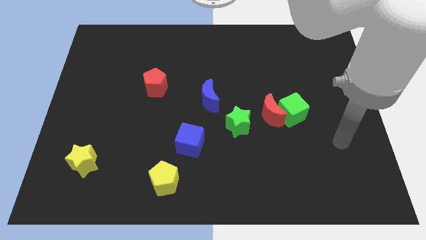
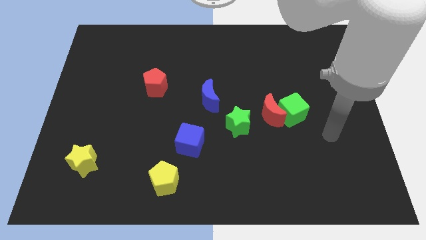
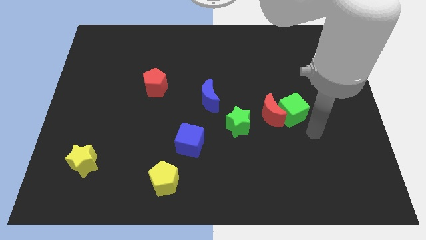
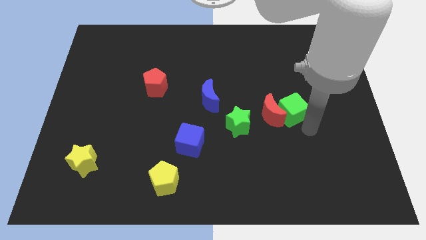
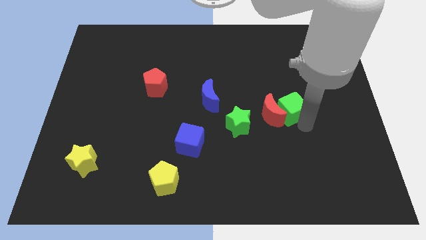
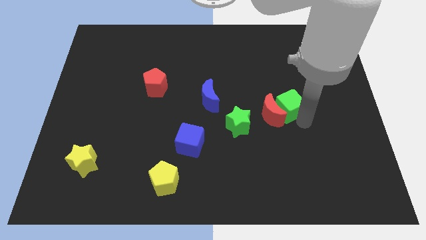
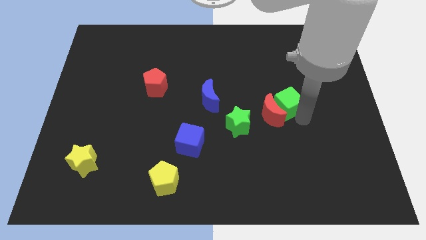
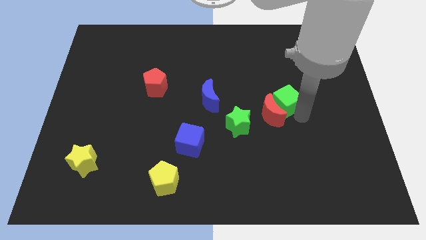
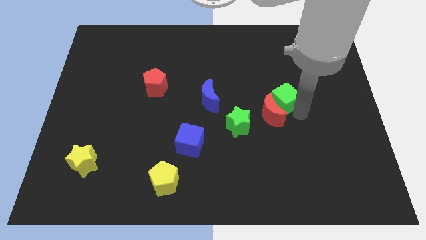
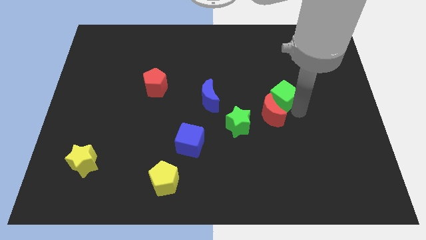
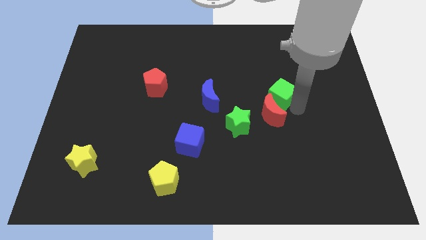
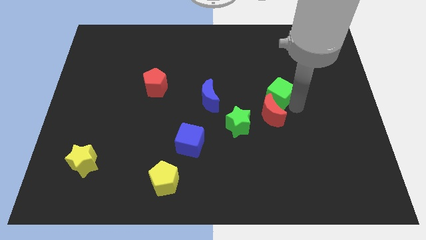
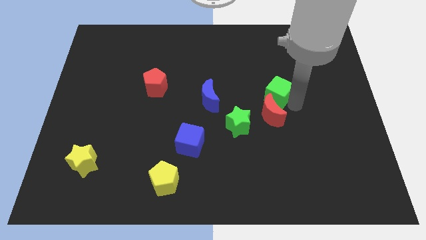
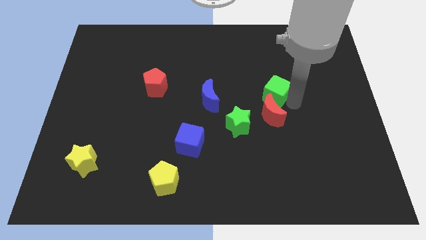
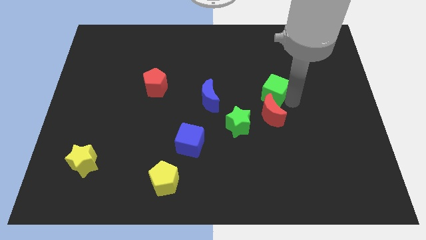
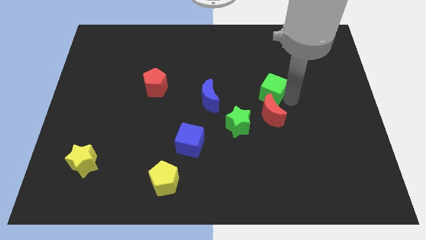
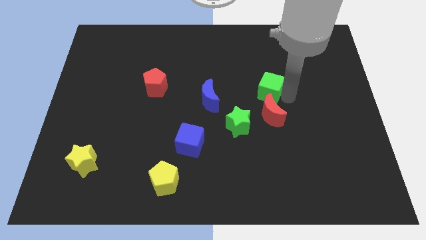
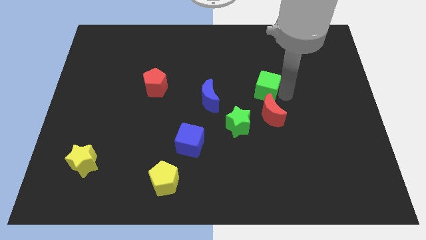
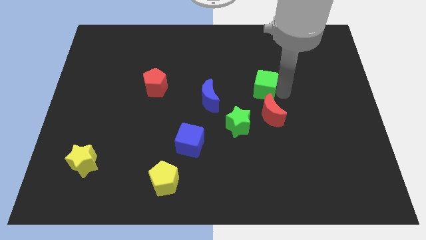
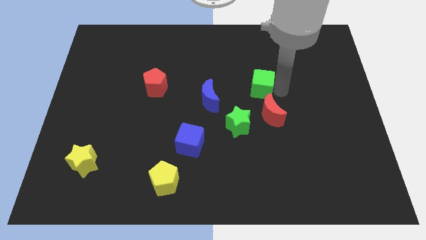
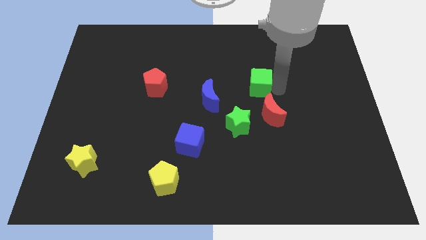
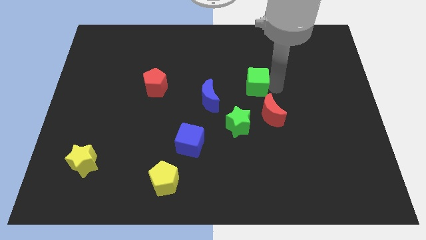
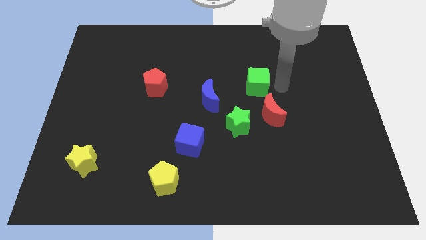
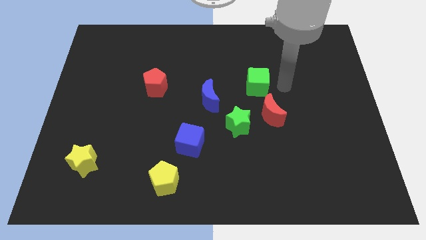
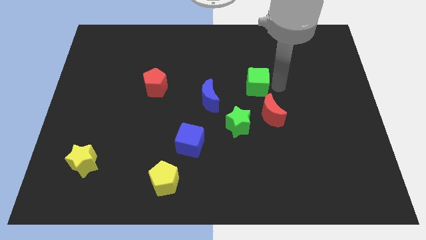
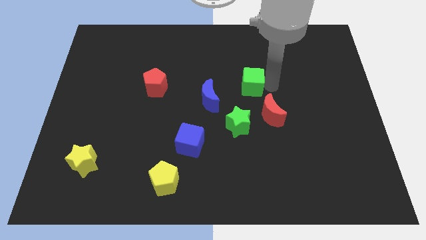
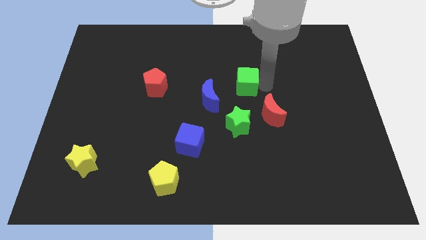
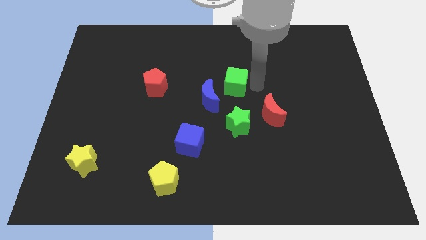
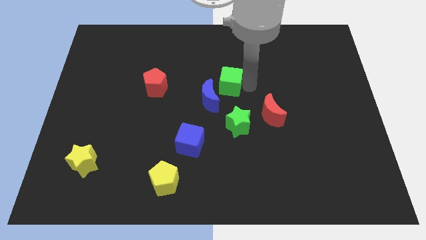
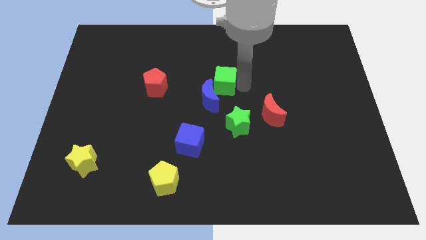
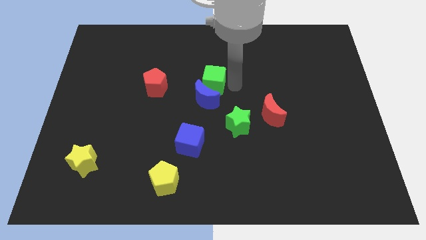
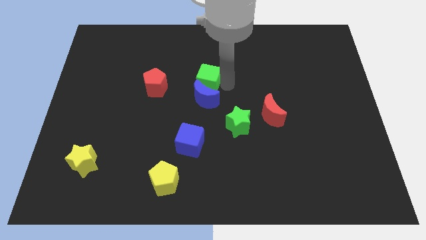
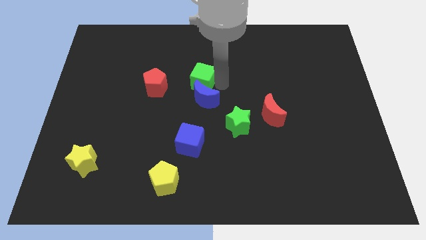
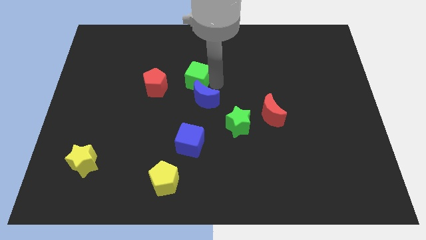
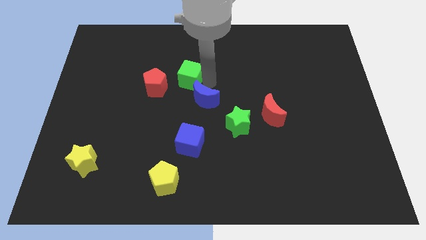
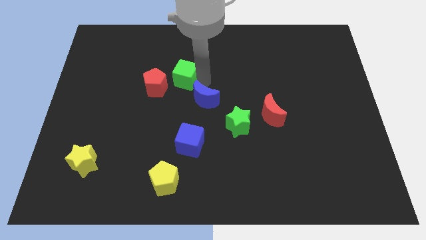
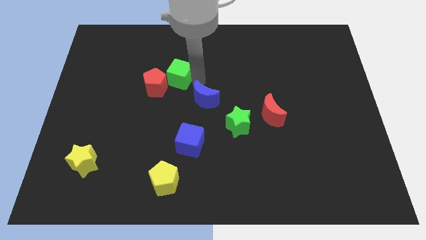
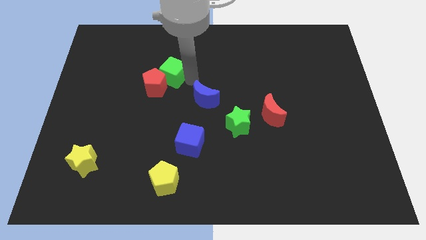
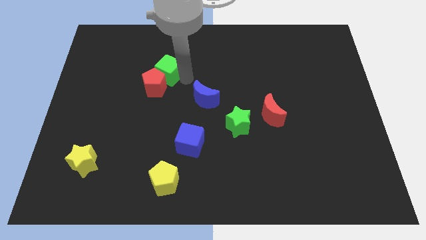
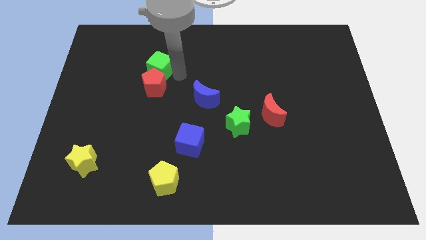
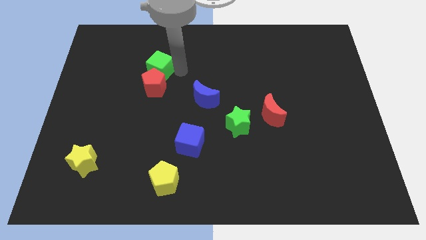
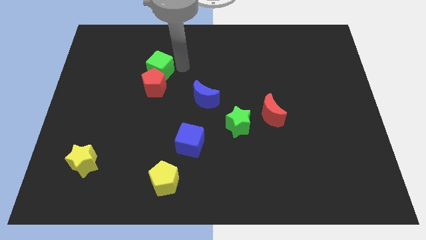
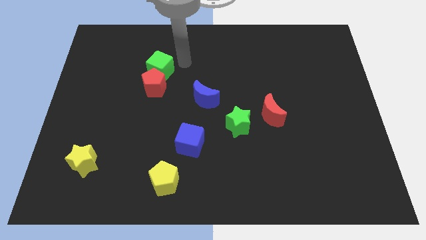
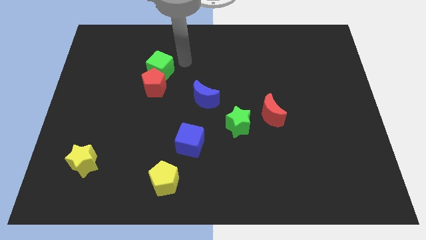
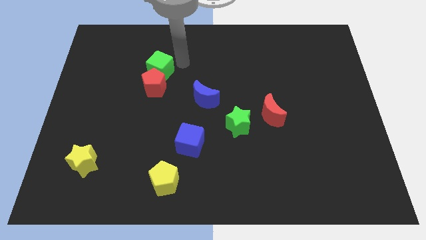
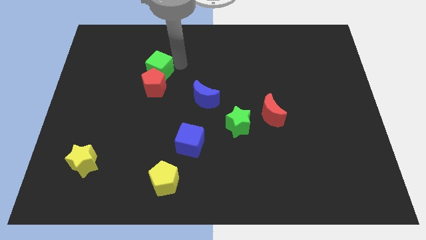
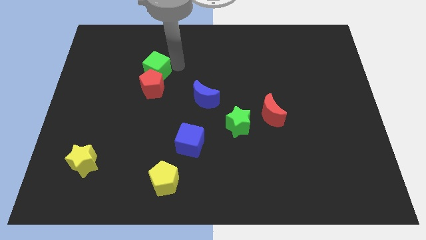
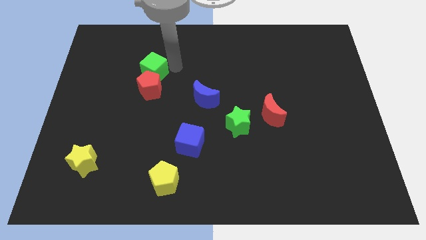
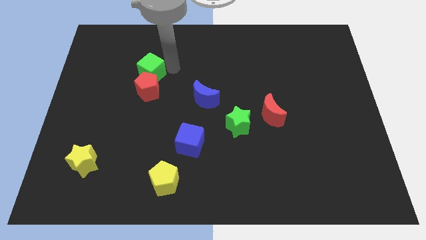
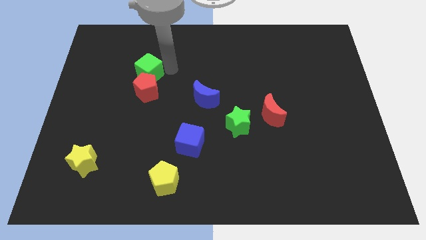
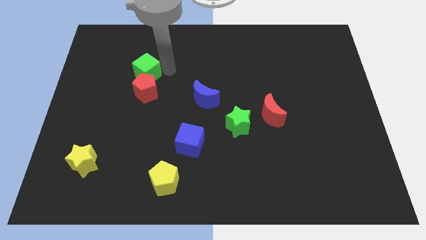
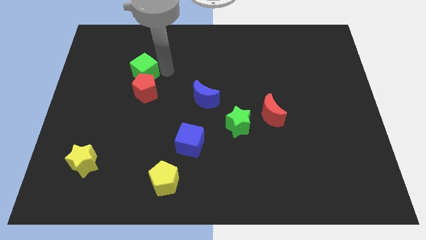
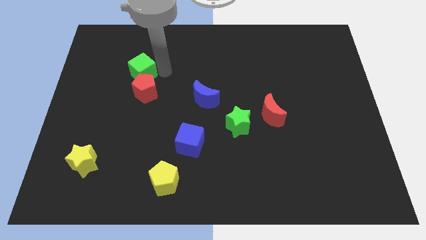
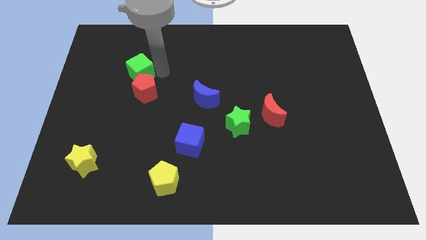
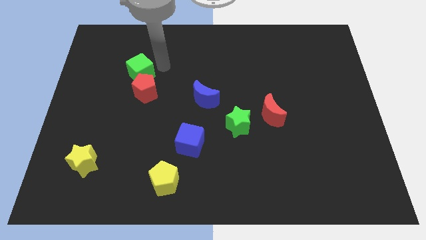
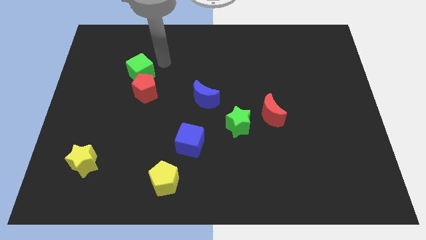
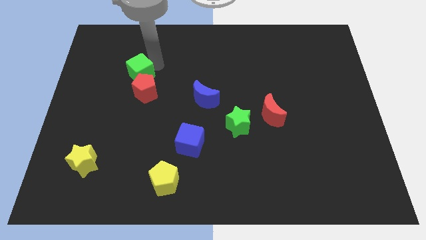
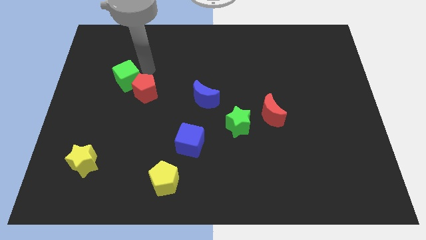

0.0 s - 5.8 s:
move the green cube left of the red pentagon

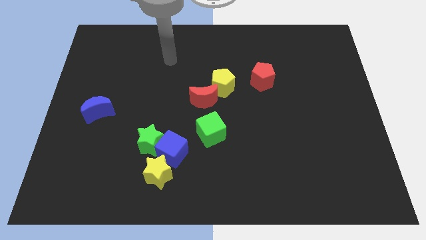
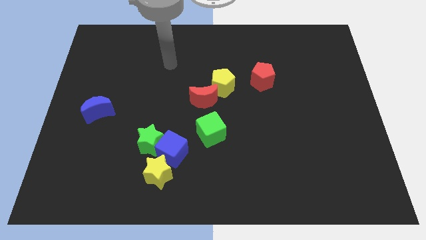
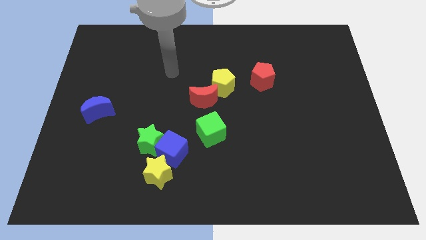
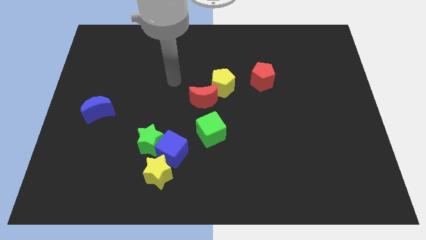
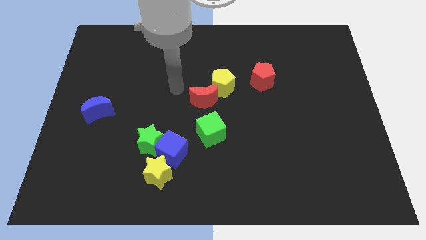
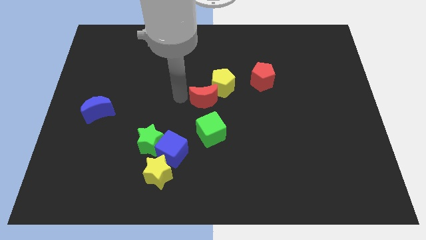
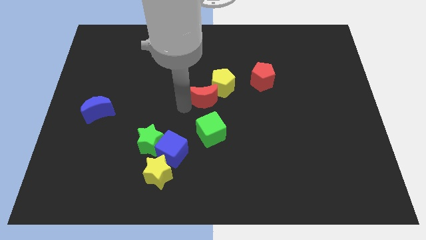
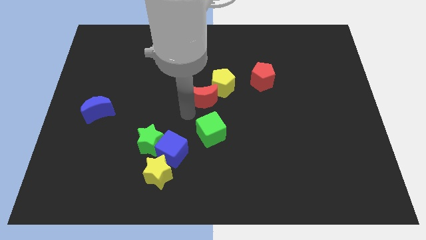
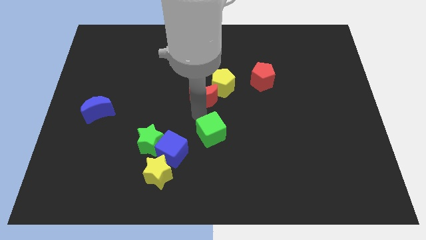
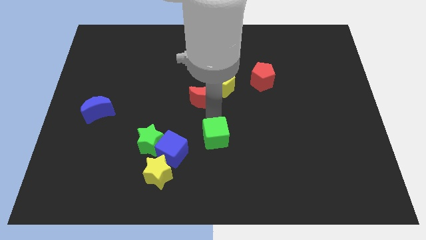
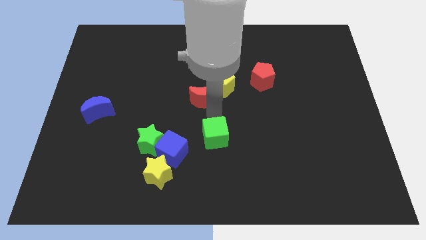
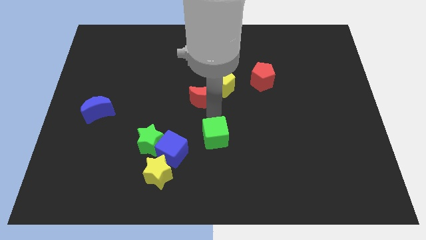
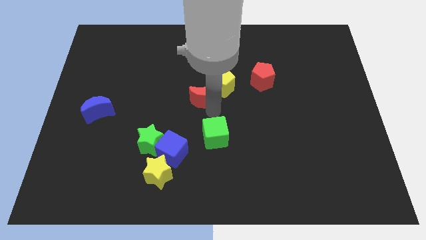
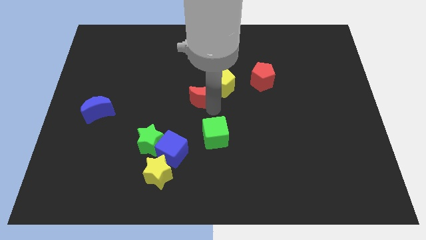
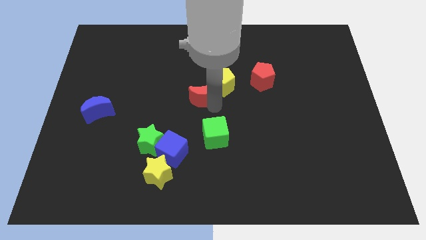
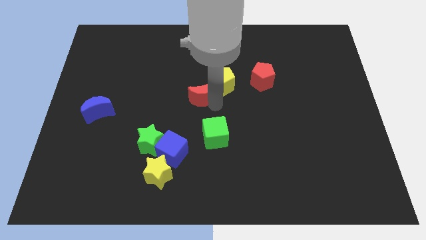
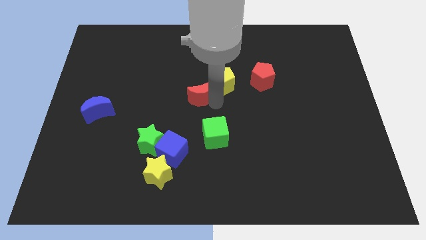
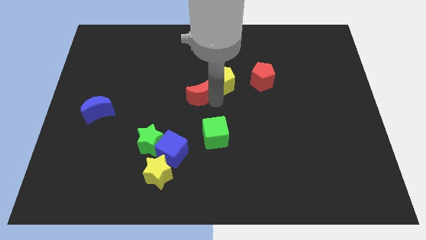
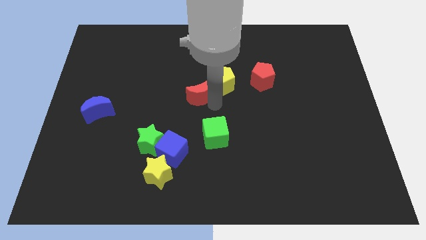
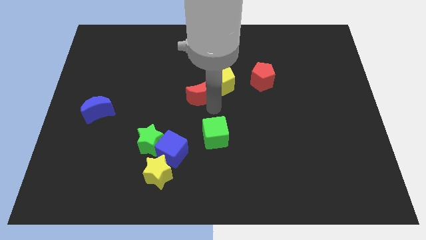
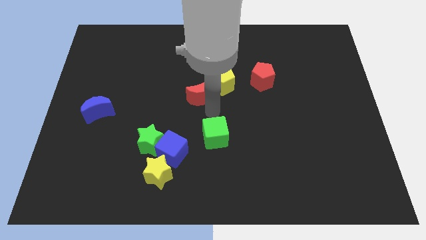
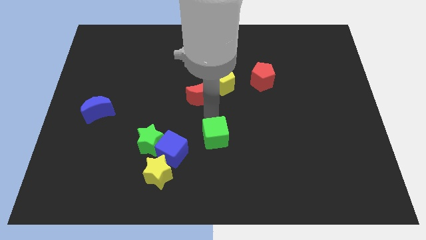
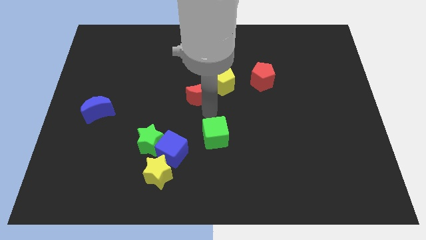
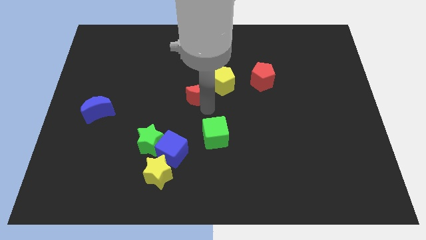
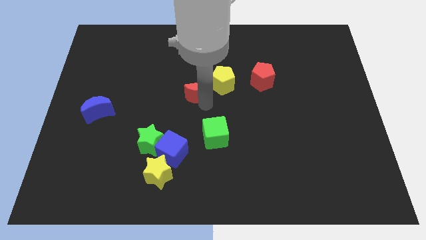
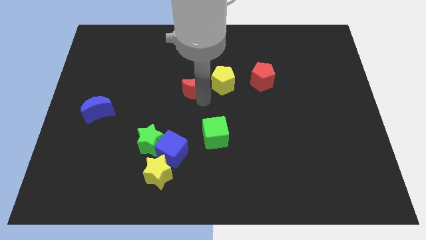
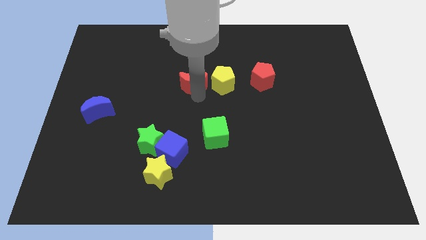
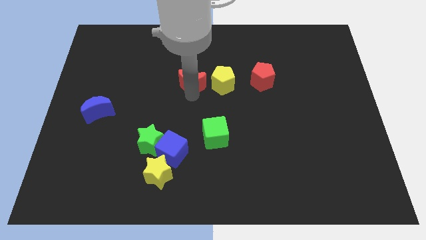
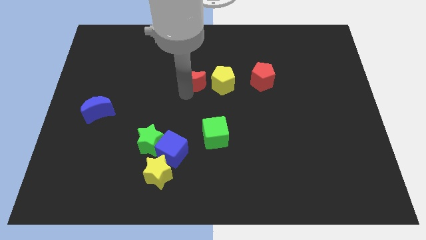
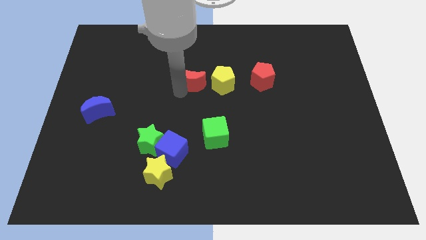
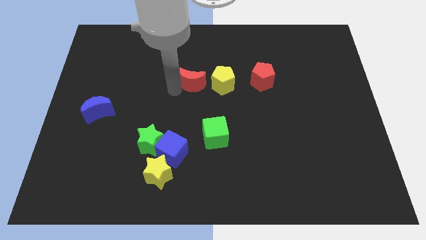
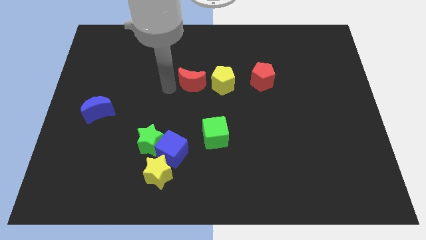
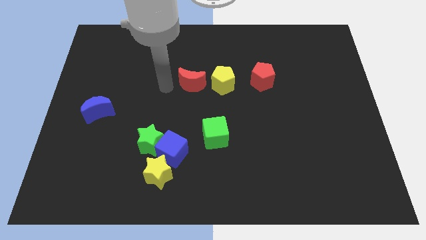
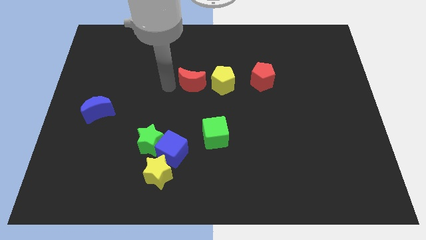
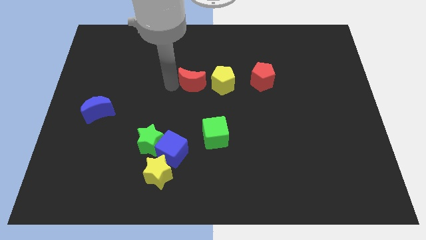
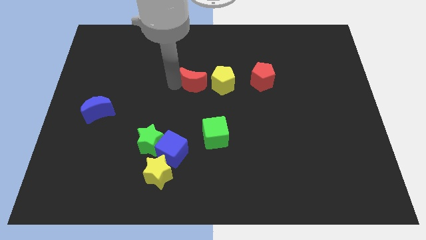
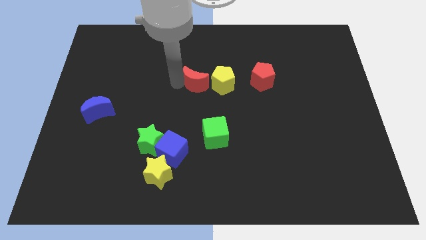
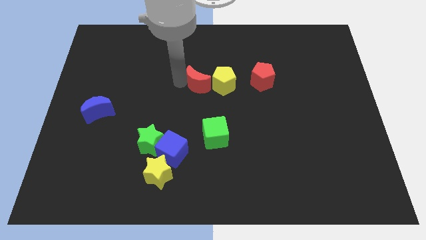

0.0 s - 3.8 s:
slide the red moon to the left of the red pentagon
